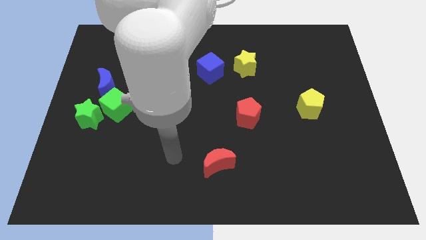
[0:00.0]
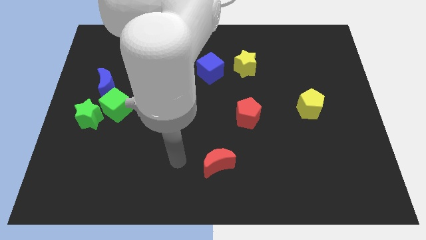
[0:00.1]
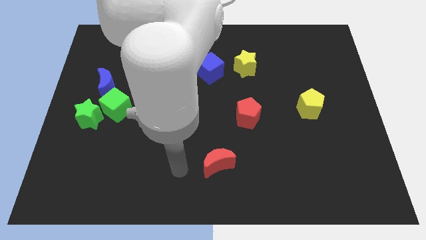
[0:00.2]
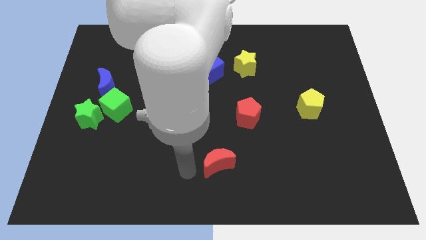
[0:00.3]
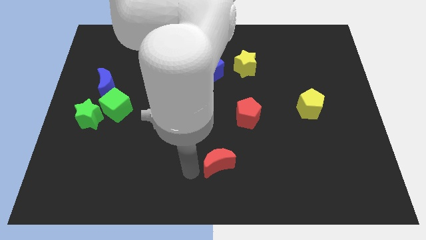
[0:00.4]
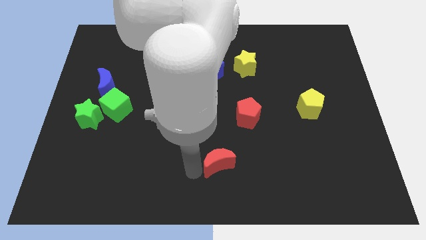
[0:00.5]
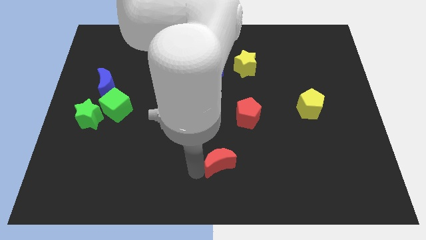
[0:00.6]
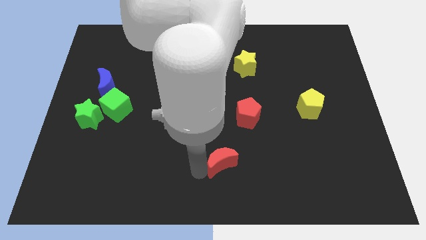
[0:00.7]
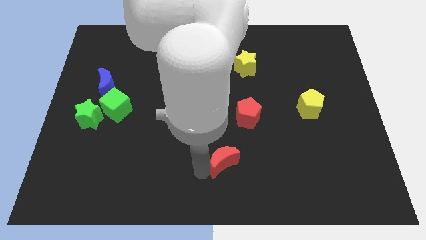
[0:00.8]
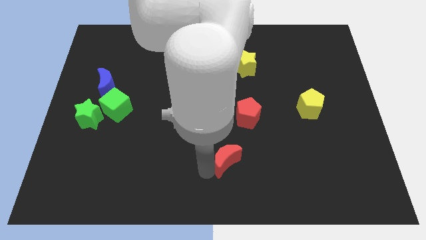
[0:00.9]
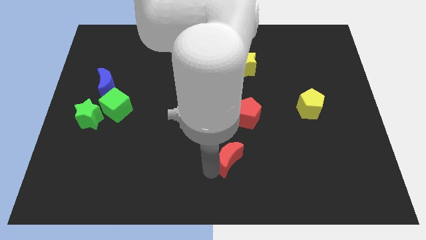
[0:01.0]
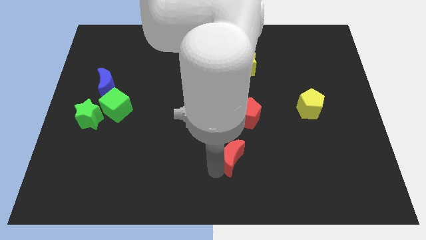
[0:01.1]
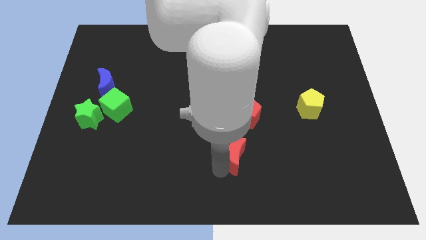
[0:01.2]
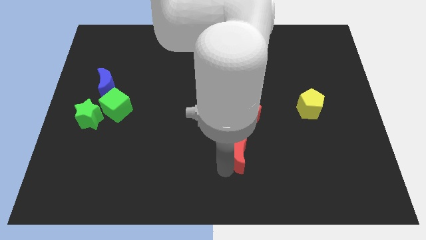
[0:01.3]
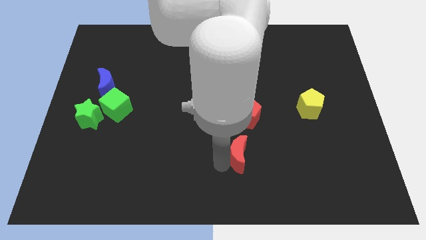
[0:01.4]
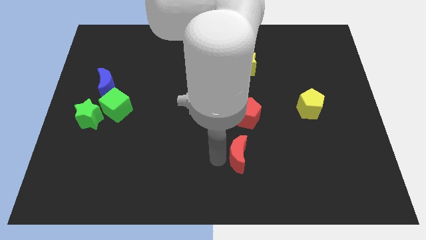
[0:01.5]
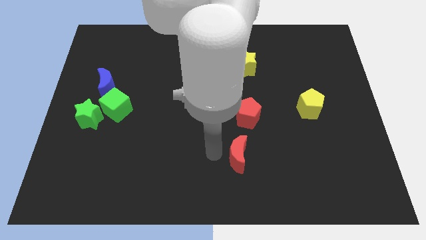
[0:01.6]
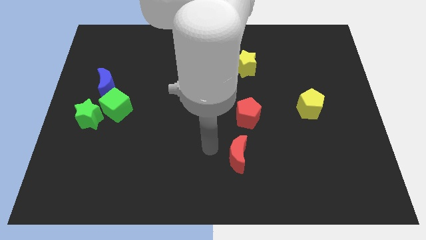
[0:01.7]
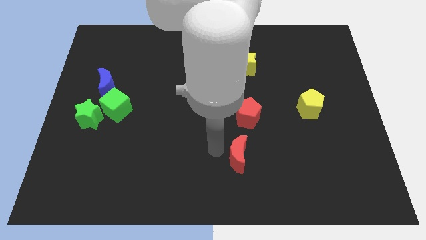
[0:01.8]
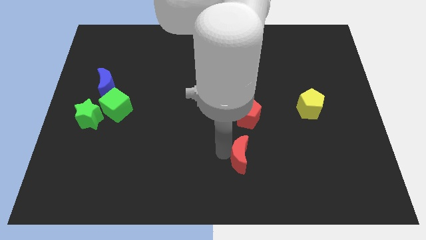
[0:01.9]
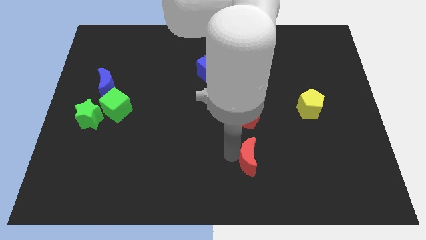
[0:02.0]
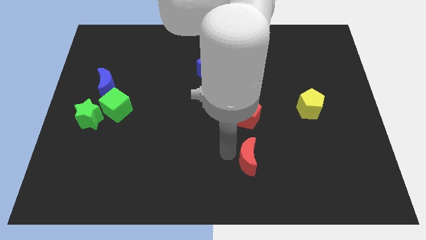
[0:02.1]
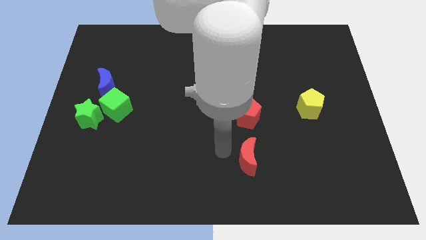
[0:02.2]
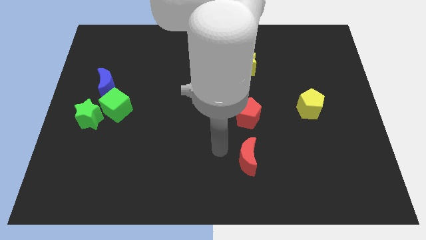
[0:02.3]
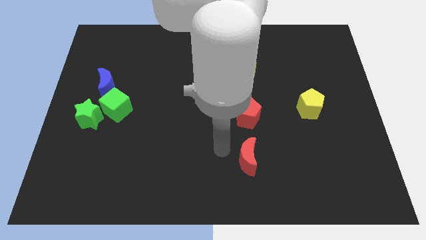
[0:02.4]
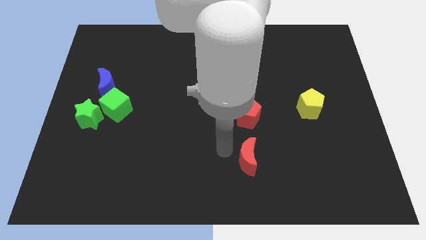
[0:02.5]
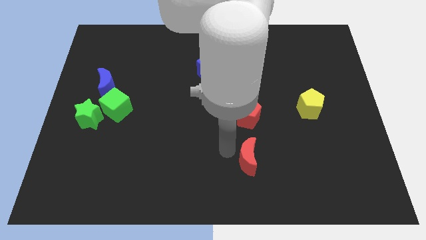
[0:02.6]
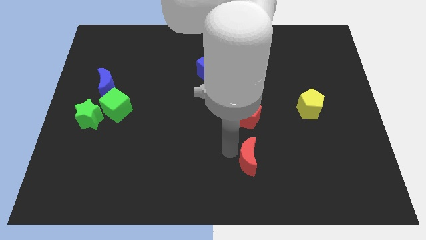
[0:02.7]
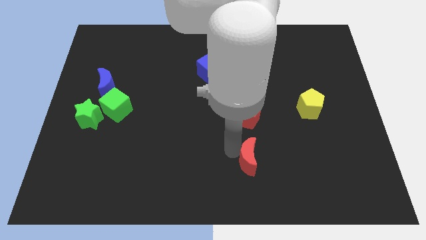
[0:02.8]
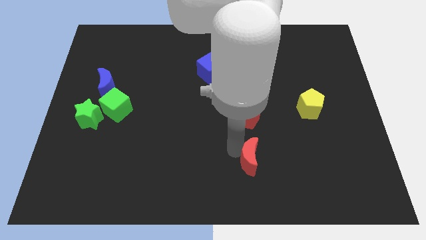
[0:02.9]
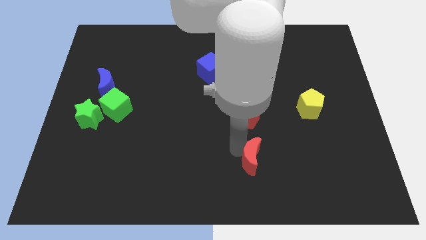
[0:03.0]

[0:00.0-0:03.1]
push the red moon right a bit

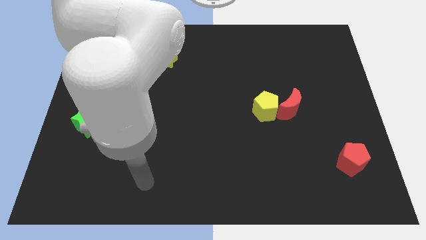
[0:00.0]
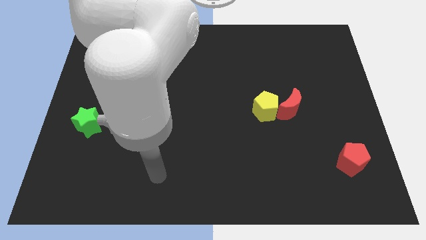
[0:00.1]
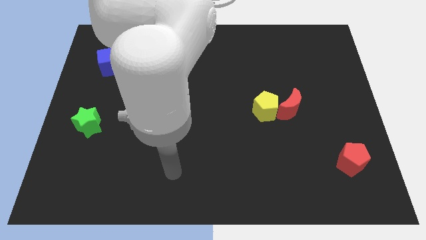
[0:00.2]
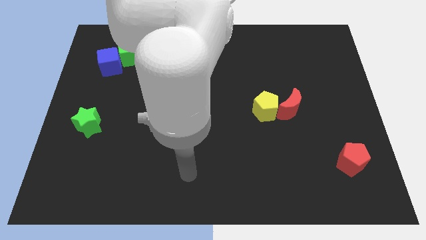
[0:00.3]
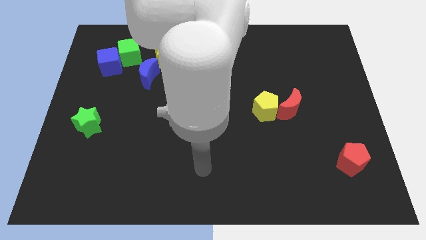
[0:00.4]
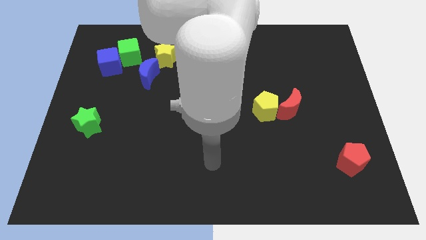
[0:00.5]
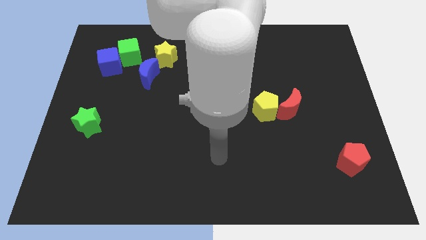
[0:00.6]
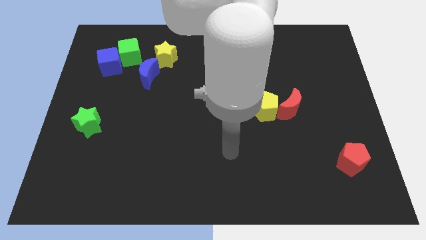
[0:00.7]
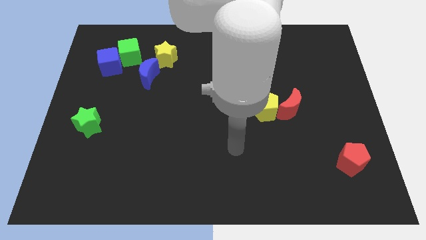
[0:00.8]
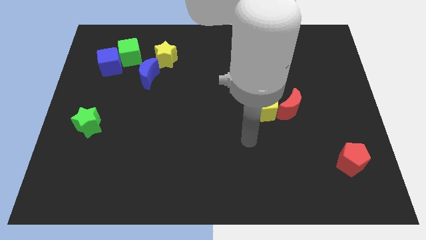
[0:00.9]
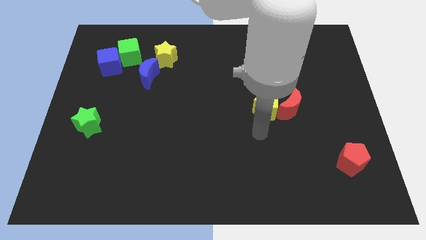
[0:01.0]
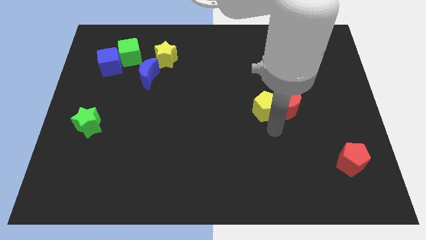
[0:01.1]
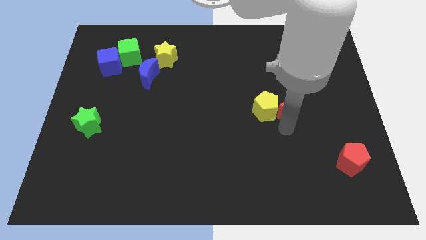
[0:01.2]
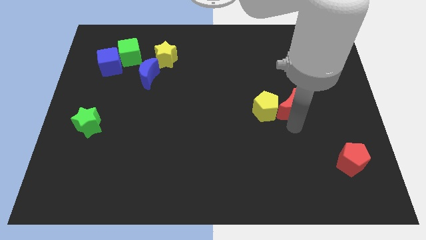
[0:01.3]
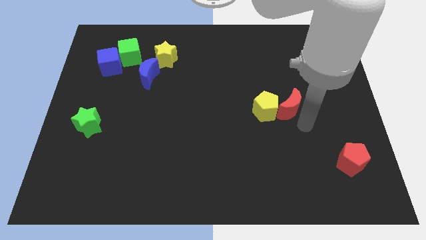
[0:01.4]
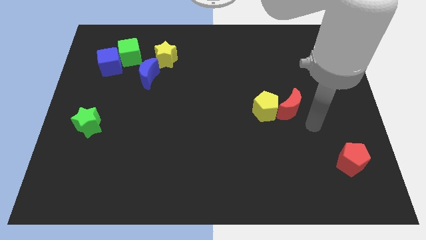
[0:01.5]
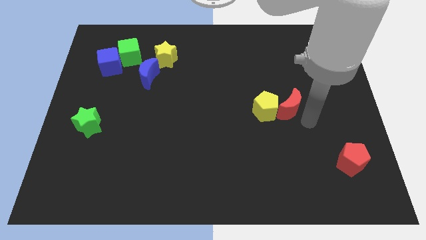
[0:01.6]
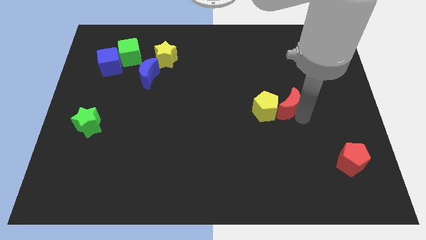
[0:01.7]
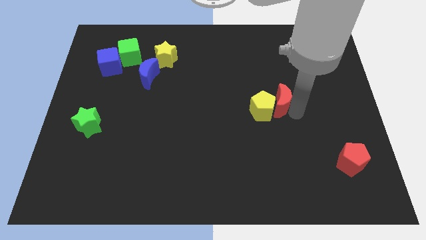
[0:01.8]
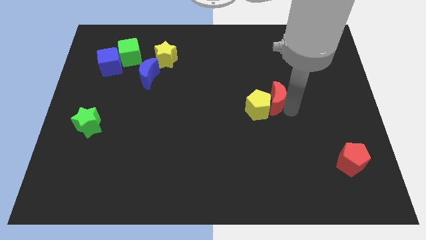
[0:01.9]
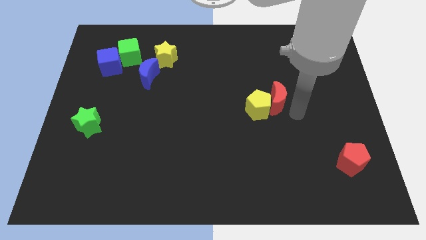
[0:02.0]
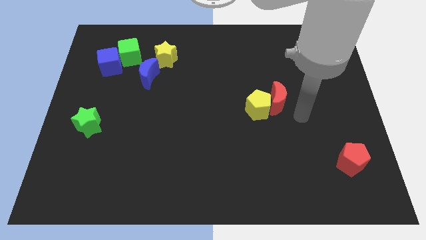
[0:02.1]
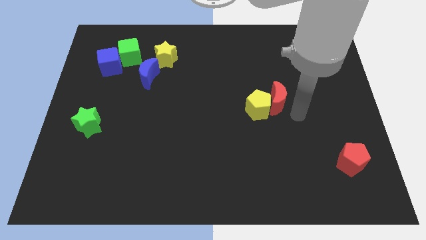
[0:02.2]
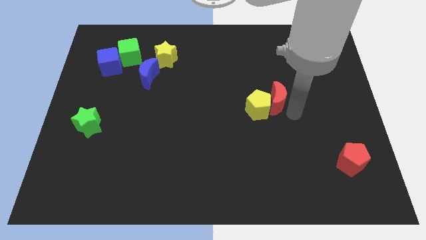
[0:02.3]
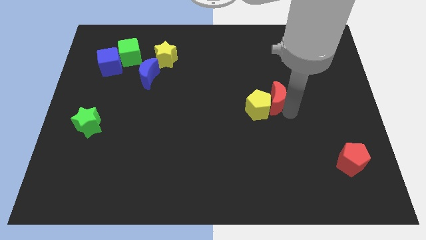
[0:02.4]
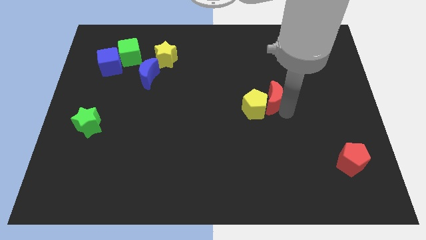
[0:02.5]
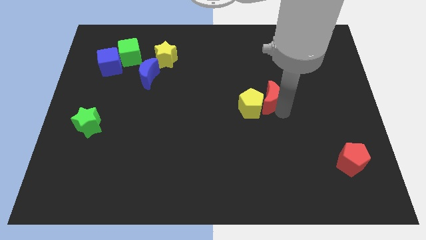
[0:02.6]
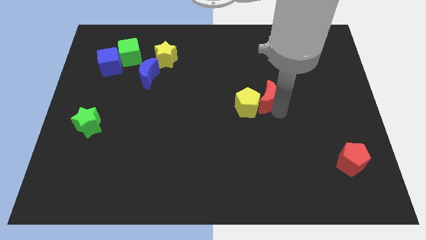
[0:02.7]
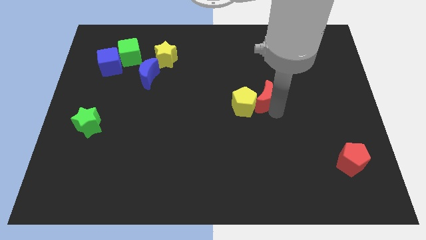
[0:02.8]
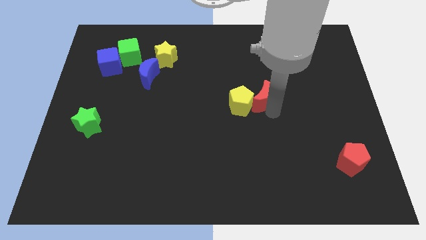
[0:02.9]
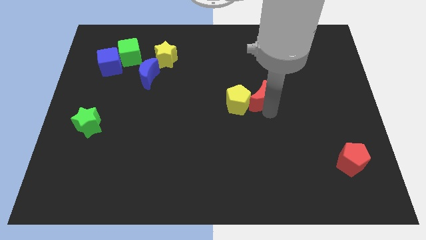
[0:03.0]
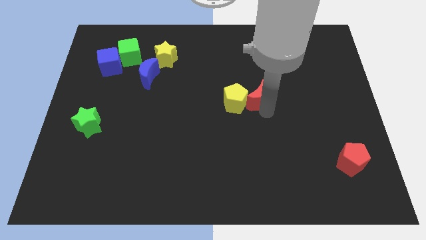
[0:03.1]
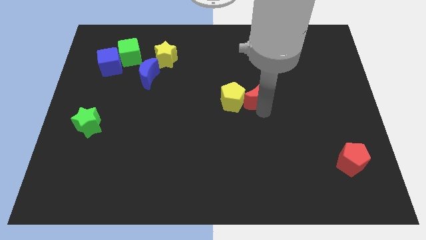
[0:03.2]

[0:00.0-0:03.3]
slightly push the red moon upwards and then to the left

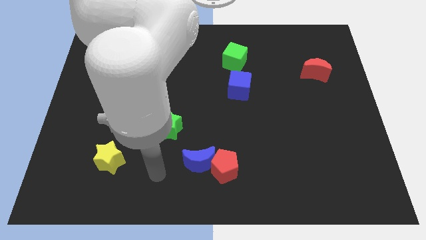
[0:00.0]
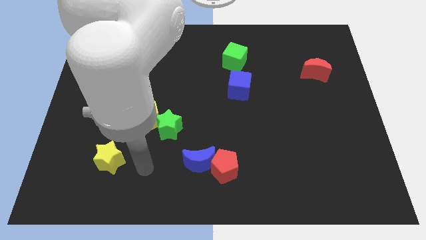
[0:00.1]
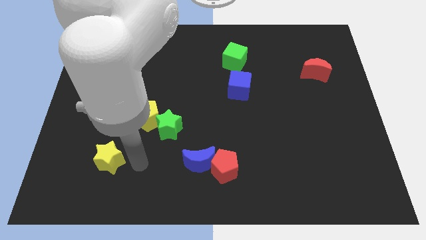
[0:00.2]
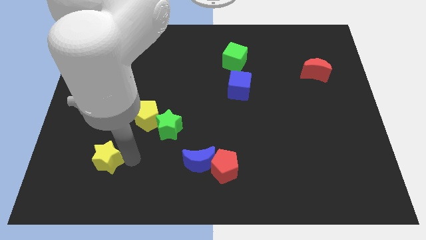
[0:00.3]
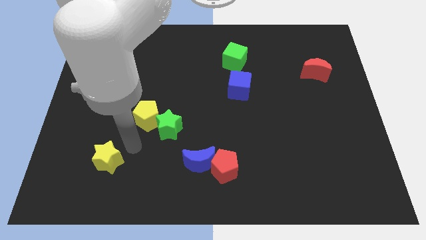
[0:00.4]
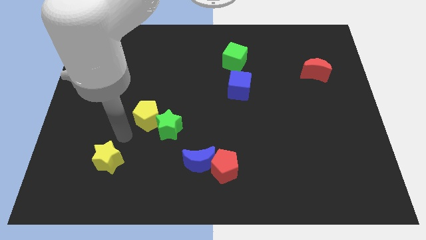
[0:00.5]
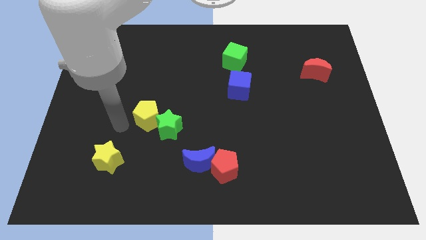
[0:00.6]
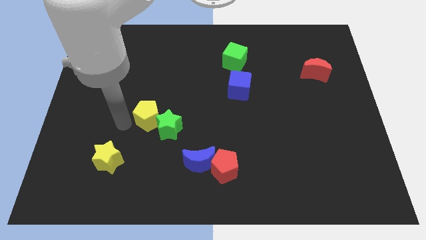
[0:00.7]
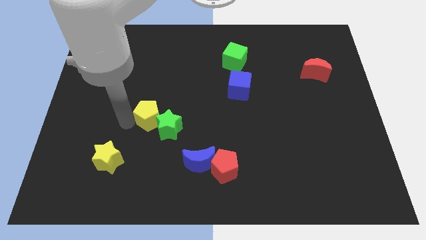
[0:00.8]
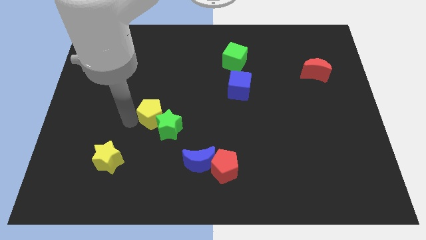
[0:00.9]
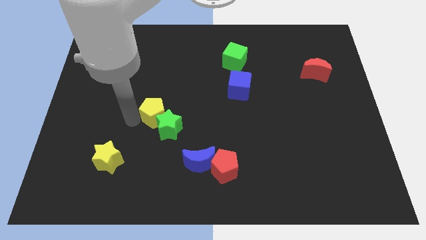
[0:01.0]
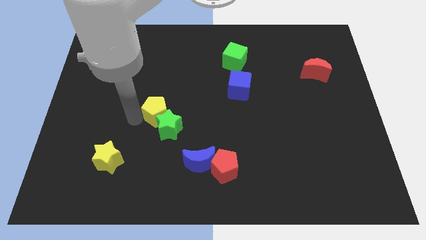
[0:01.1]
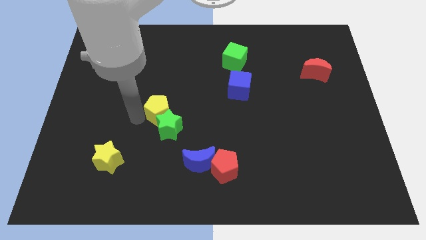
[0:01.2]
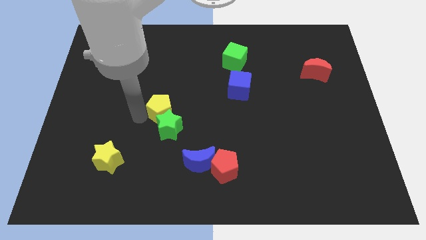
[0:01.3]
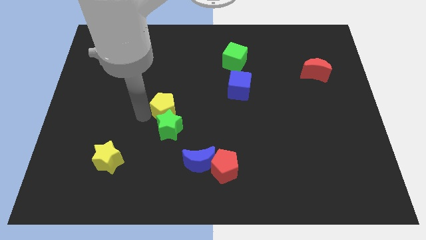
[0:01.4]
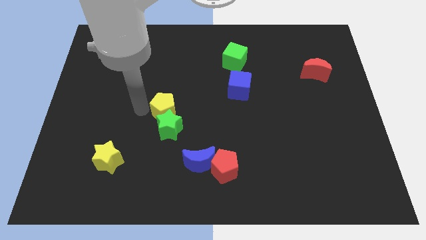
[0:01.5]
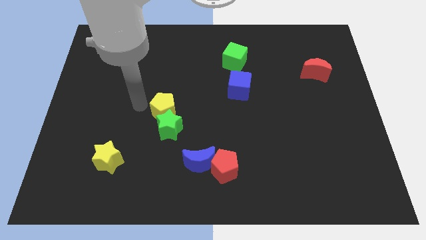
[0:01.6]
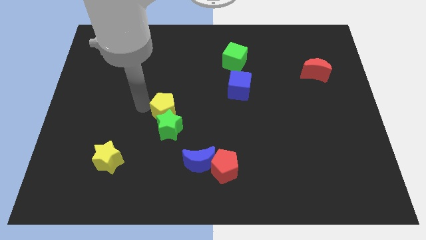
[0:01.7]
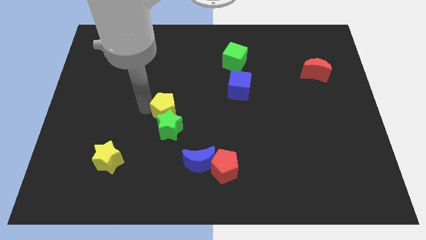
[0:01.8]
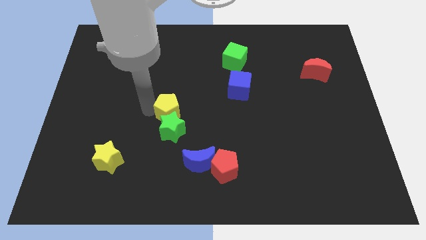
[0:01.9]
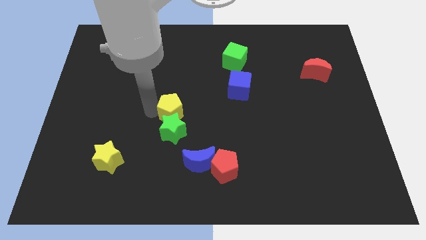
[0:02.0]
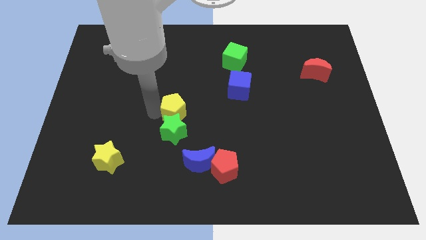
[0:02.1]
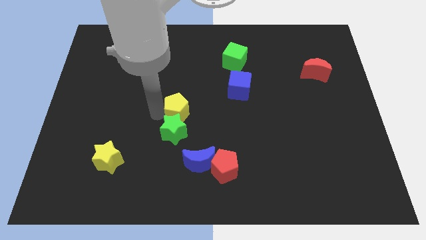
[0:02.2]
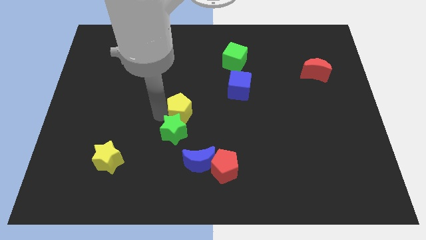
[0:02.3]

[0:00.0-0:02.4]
push the yellow pentagon right a little bit
